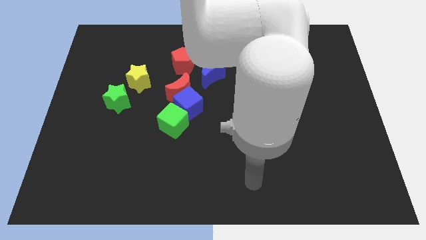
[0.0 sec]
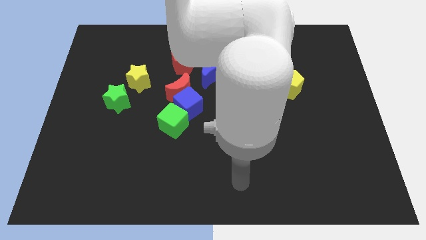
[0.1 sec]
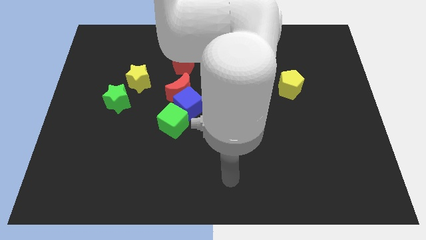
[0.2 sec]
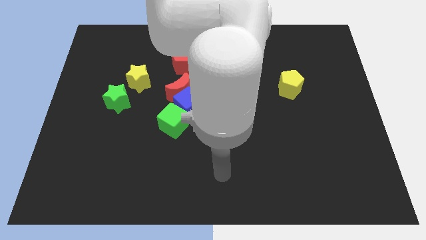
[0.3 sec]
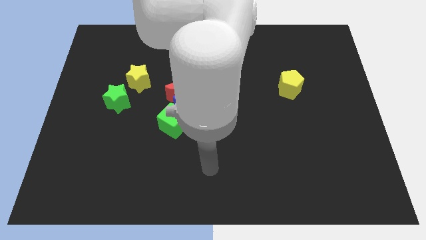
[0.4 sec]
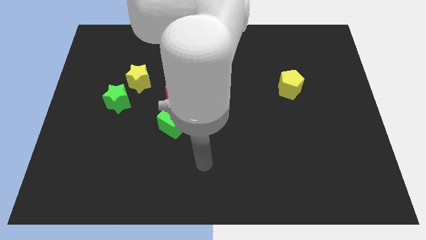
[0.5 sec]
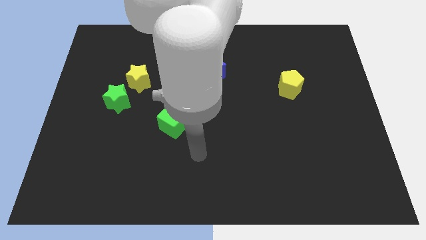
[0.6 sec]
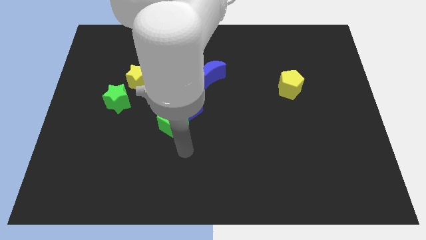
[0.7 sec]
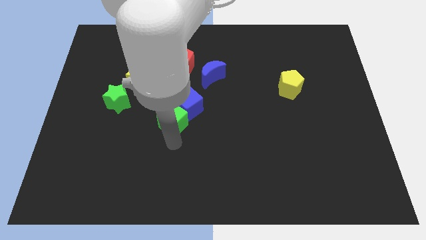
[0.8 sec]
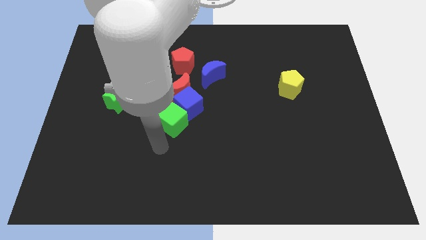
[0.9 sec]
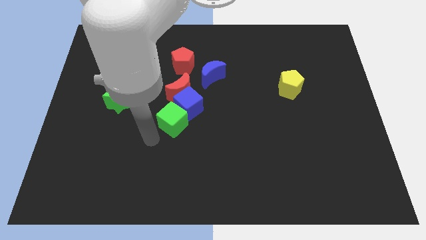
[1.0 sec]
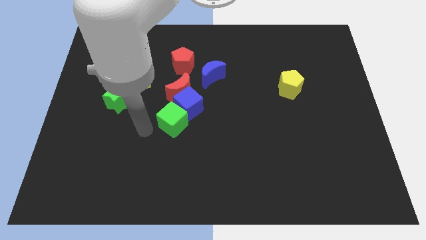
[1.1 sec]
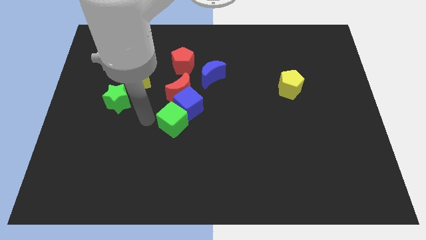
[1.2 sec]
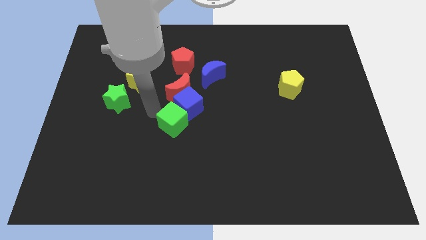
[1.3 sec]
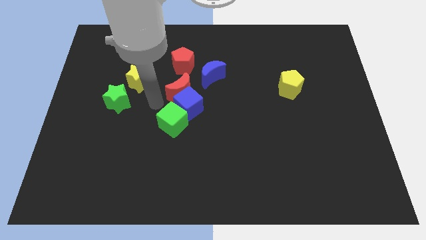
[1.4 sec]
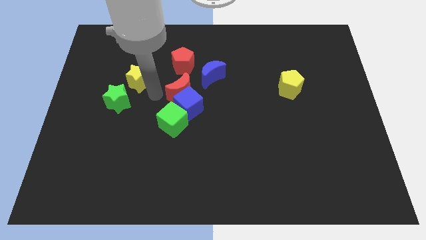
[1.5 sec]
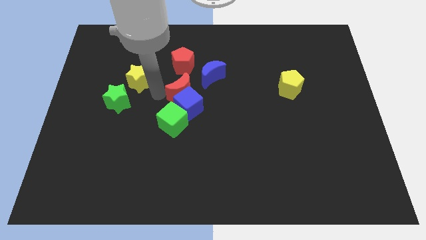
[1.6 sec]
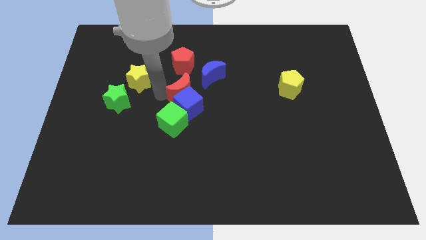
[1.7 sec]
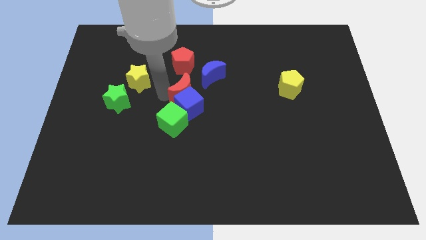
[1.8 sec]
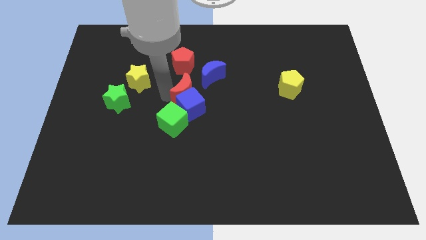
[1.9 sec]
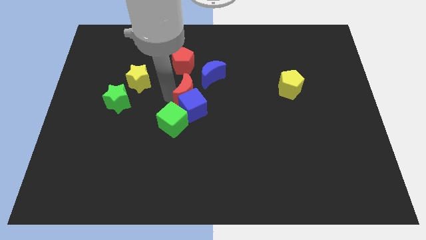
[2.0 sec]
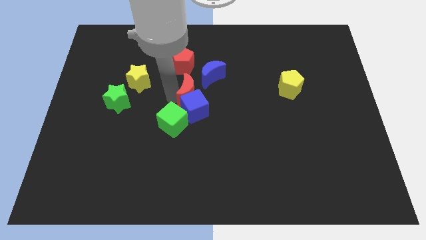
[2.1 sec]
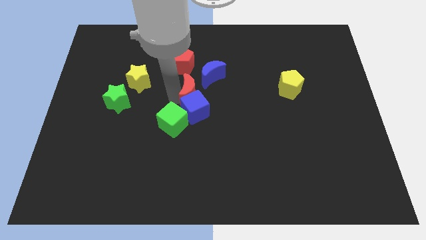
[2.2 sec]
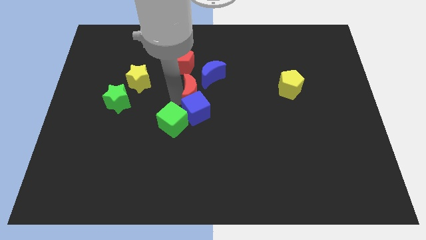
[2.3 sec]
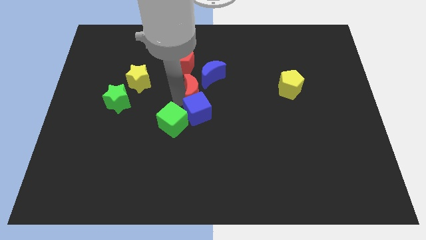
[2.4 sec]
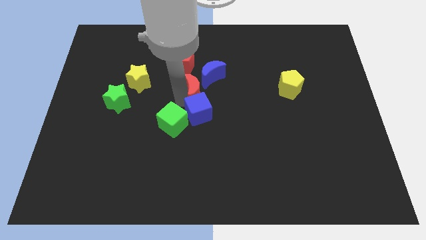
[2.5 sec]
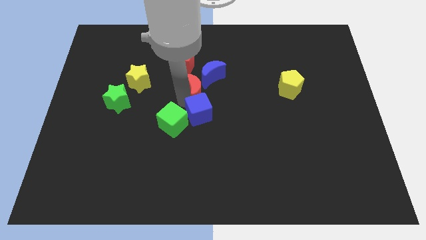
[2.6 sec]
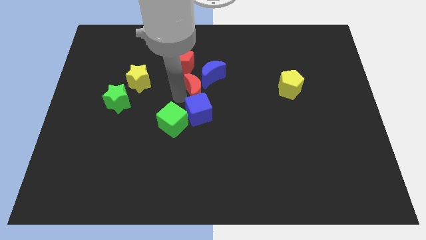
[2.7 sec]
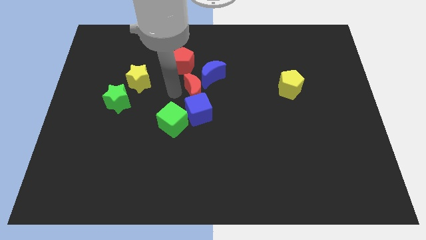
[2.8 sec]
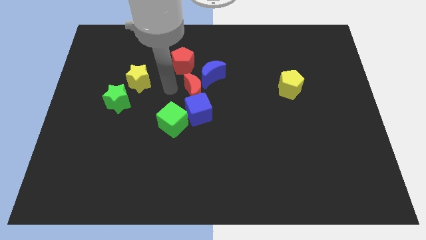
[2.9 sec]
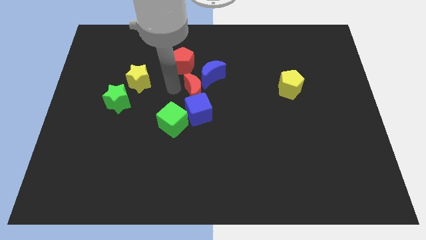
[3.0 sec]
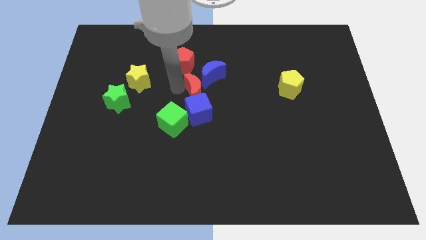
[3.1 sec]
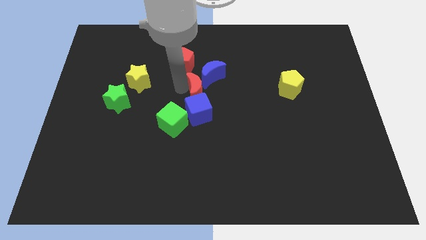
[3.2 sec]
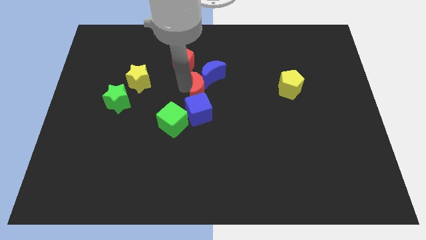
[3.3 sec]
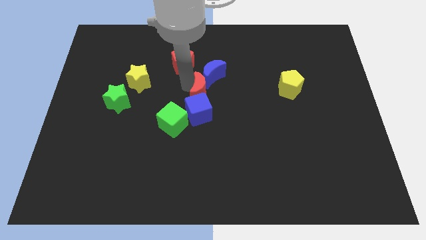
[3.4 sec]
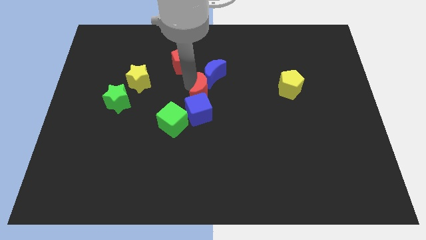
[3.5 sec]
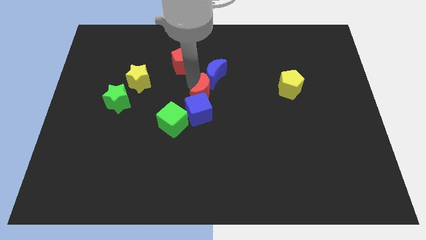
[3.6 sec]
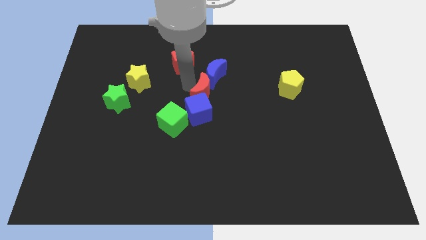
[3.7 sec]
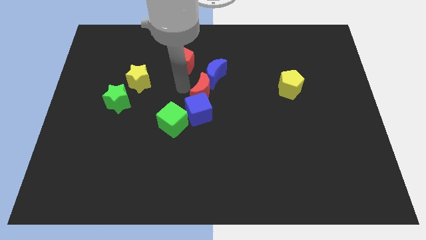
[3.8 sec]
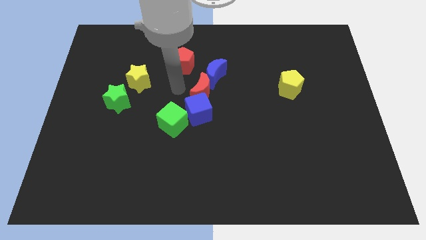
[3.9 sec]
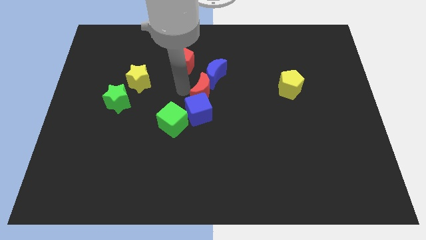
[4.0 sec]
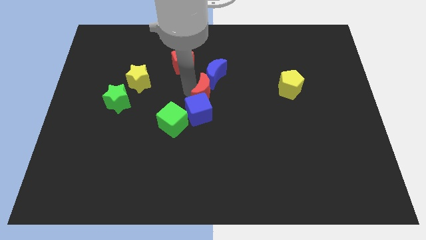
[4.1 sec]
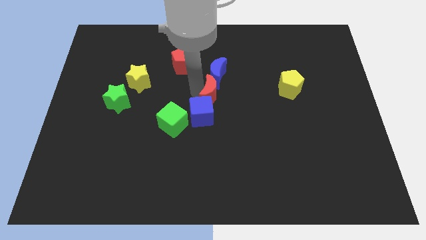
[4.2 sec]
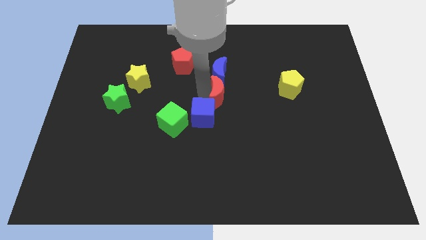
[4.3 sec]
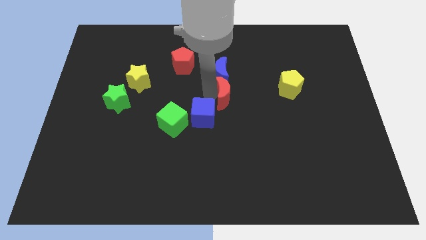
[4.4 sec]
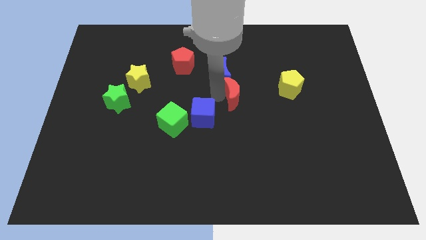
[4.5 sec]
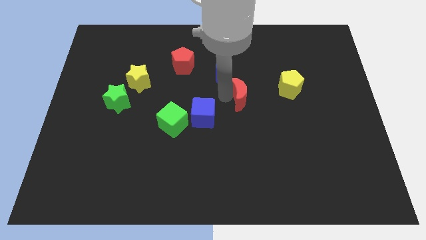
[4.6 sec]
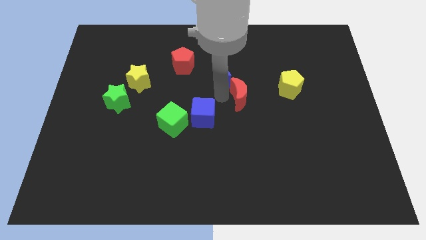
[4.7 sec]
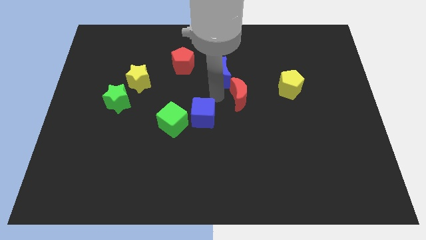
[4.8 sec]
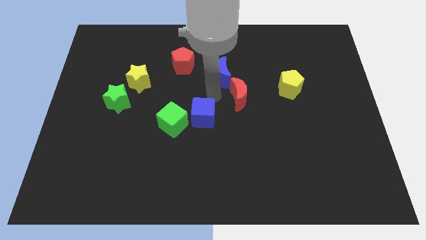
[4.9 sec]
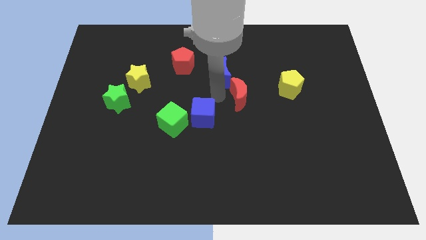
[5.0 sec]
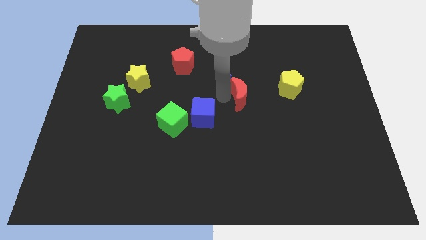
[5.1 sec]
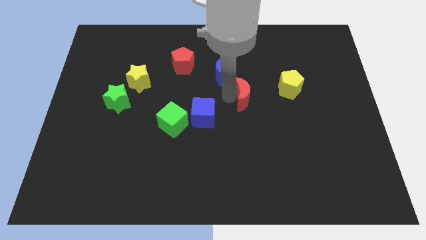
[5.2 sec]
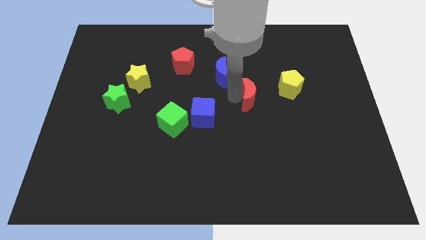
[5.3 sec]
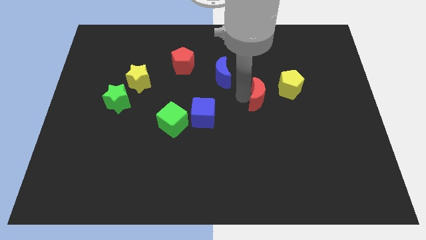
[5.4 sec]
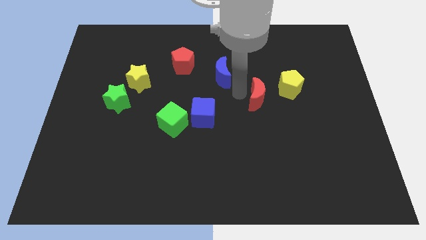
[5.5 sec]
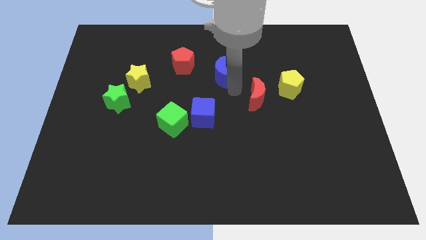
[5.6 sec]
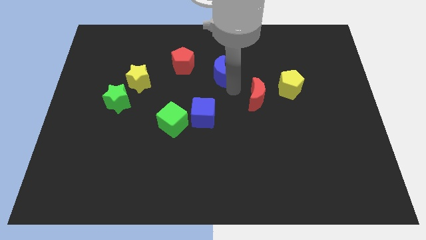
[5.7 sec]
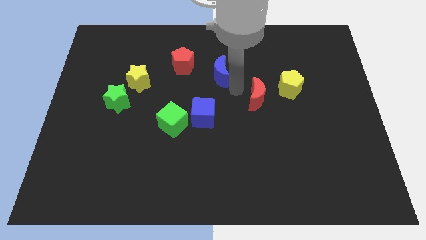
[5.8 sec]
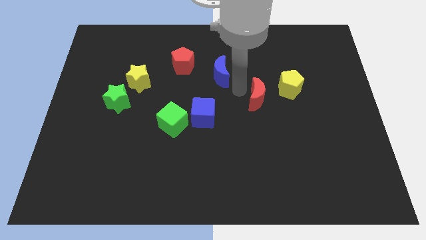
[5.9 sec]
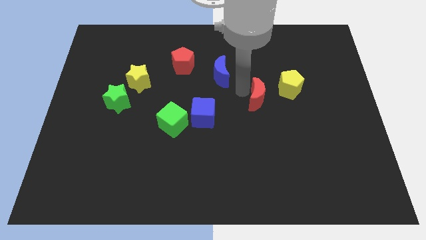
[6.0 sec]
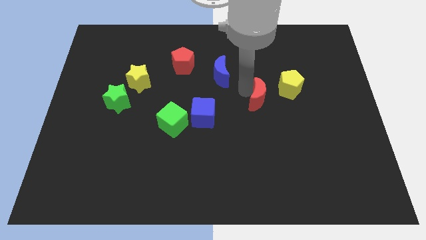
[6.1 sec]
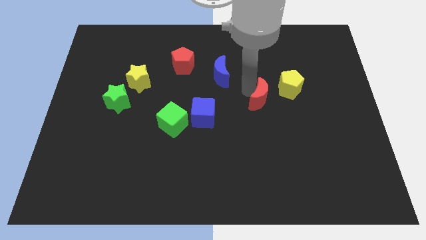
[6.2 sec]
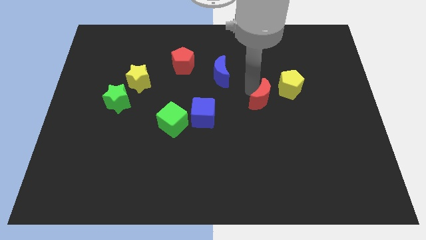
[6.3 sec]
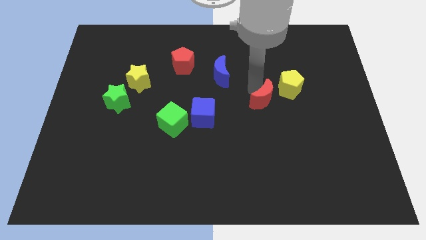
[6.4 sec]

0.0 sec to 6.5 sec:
move the red moon right

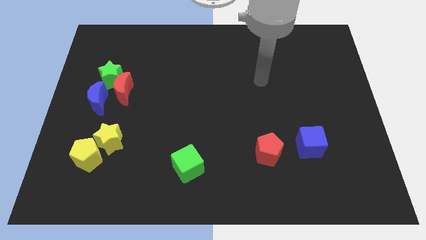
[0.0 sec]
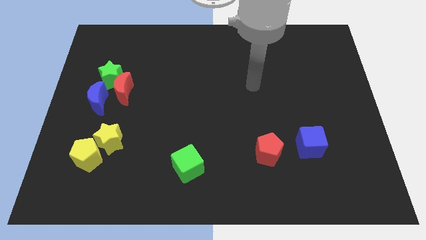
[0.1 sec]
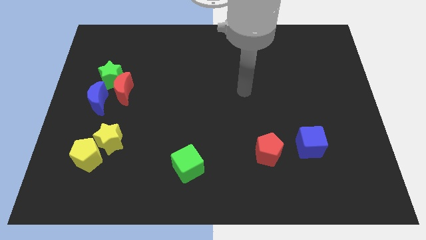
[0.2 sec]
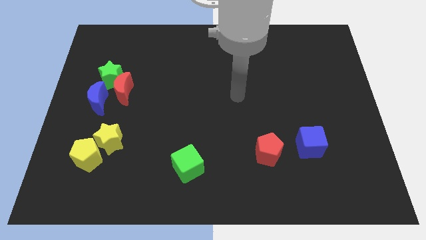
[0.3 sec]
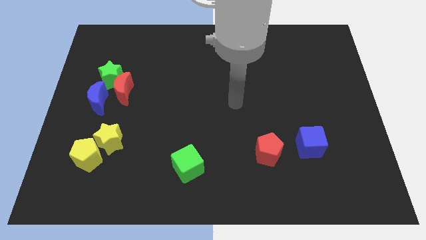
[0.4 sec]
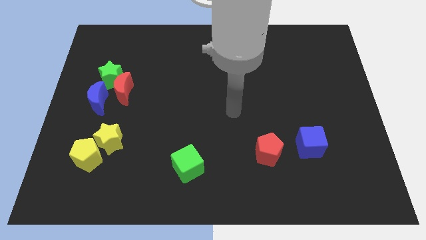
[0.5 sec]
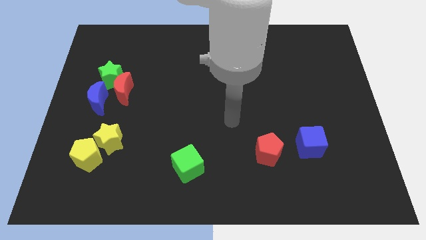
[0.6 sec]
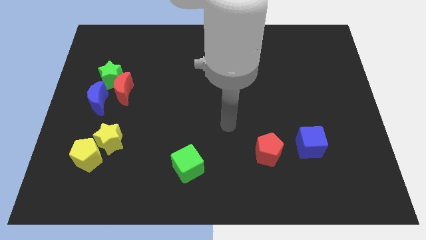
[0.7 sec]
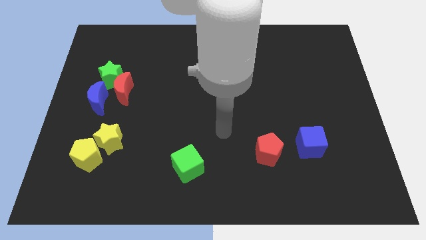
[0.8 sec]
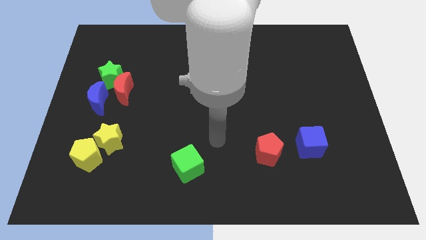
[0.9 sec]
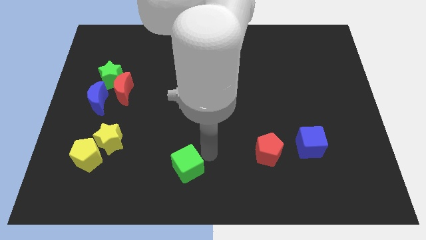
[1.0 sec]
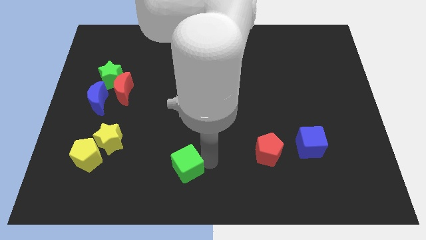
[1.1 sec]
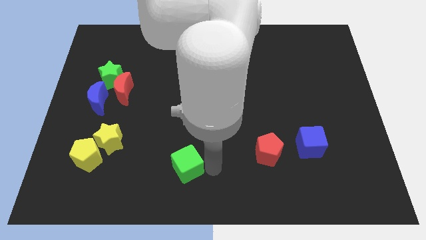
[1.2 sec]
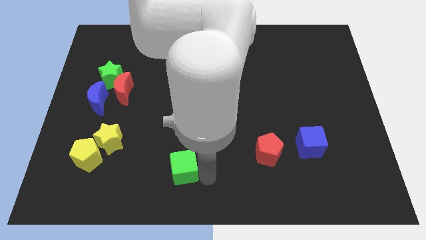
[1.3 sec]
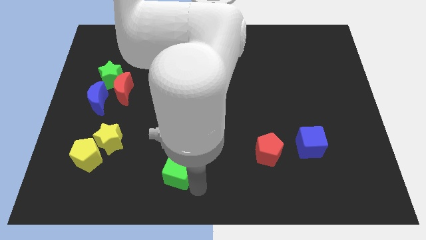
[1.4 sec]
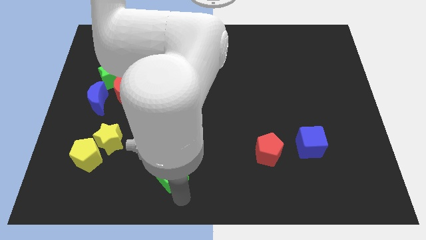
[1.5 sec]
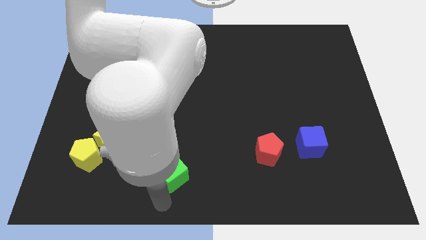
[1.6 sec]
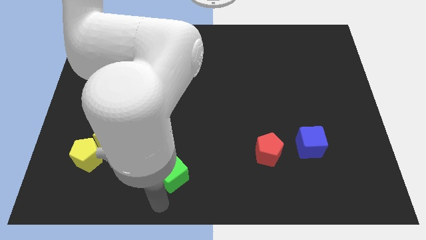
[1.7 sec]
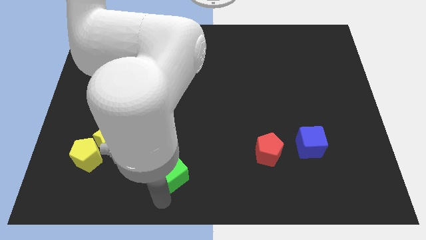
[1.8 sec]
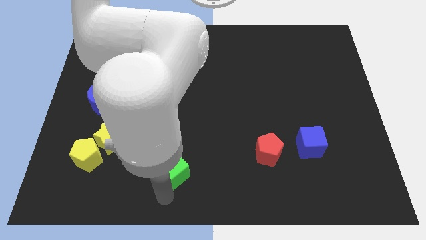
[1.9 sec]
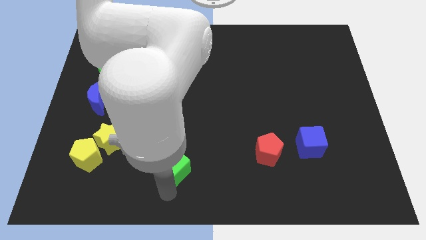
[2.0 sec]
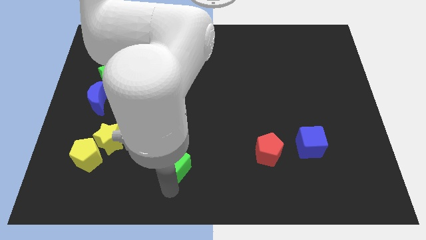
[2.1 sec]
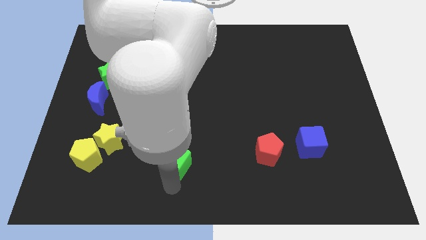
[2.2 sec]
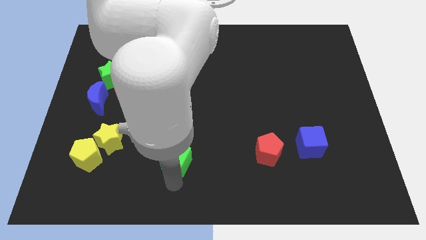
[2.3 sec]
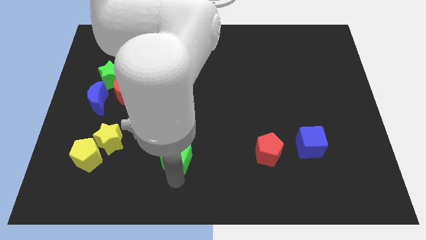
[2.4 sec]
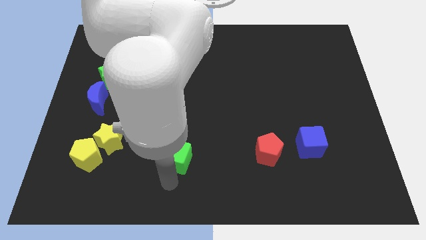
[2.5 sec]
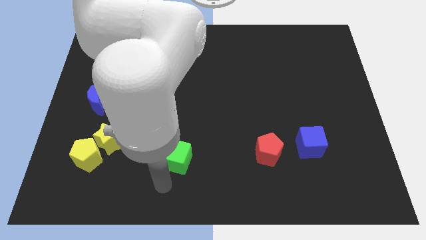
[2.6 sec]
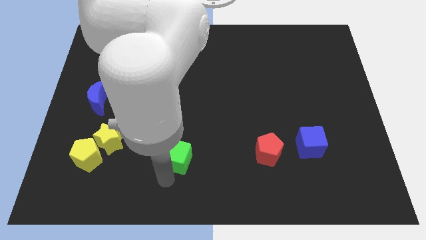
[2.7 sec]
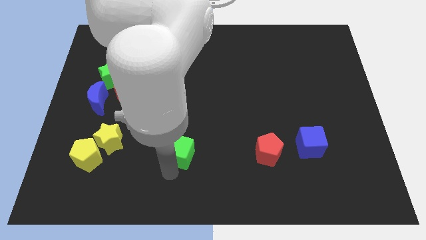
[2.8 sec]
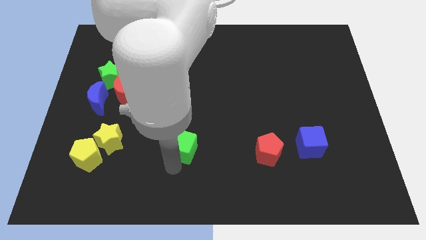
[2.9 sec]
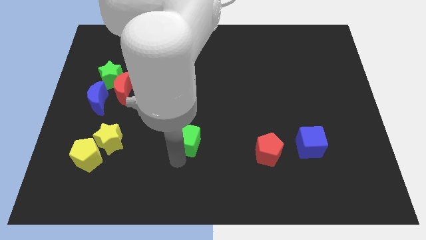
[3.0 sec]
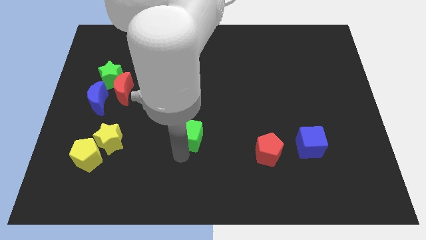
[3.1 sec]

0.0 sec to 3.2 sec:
push the green cube slightly up
